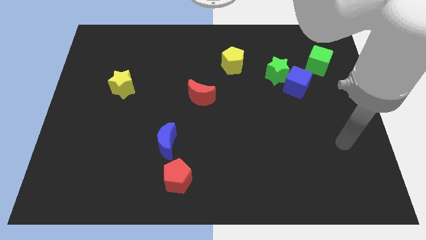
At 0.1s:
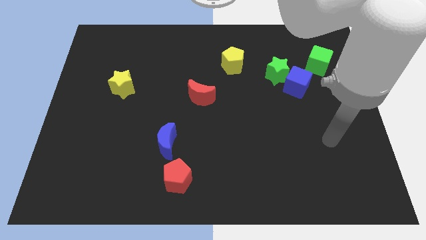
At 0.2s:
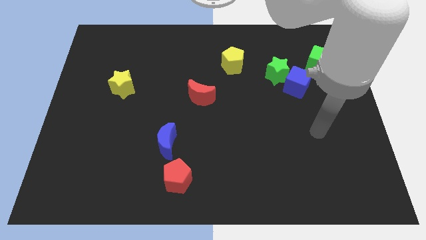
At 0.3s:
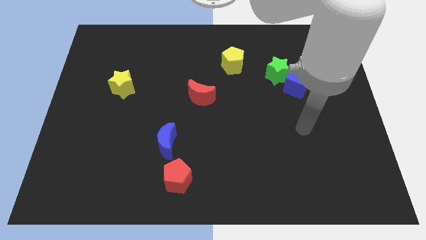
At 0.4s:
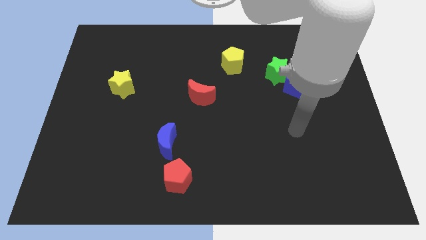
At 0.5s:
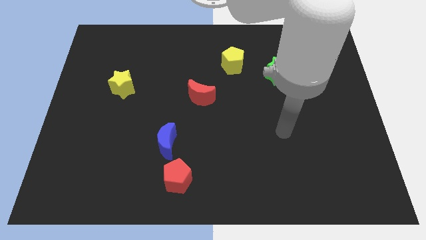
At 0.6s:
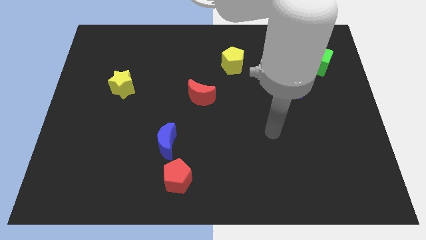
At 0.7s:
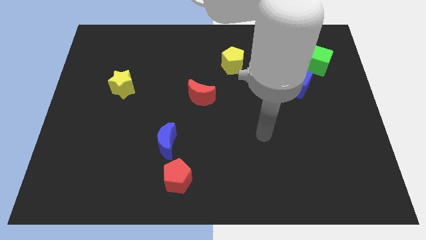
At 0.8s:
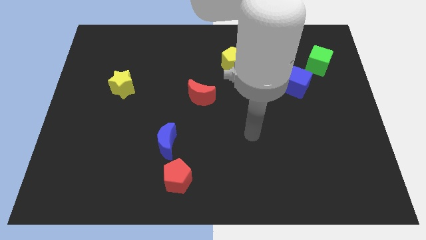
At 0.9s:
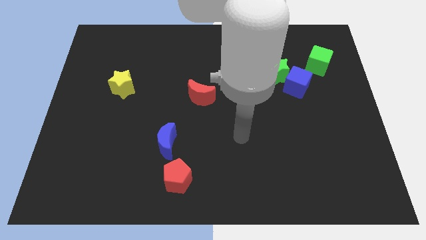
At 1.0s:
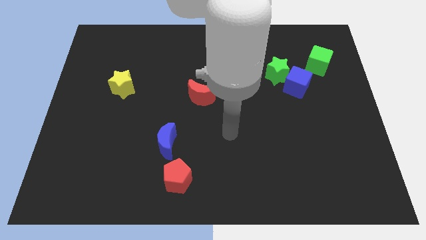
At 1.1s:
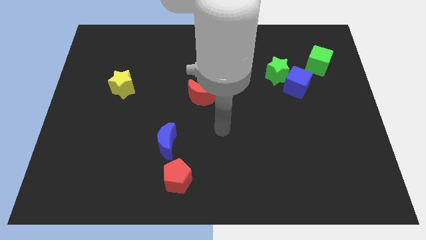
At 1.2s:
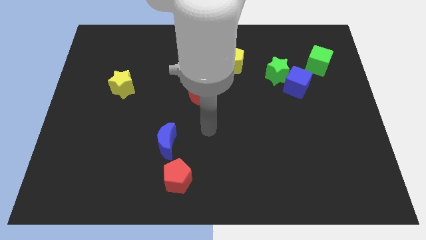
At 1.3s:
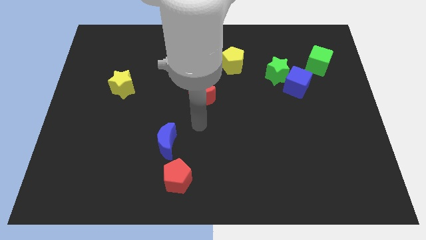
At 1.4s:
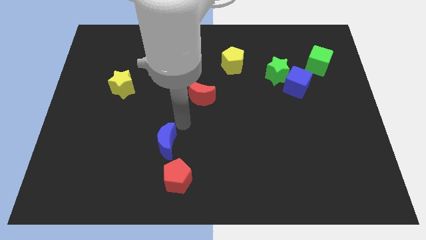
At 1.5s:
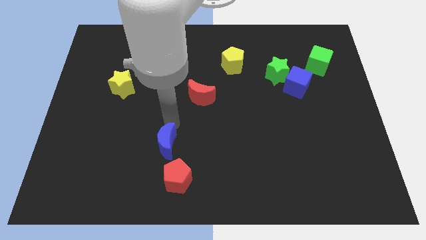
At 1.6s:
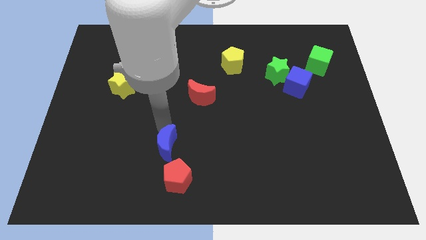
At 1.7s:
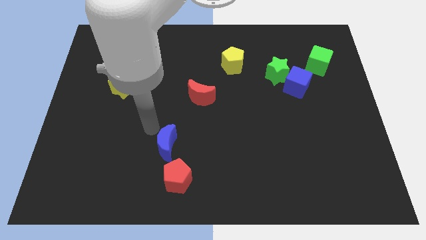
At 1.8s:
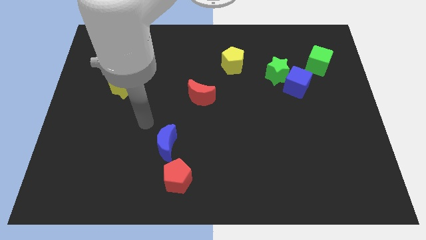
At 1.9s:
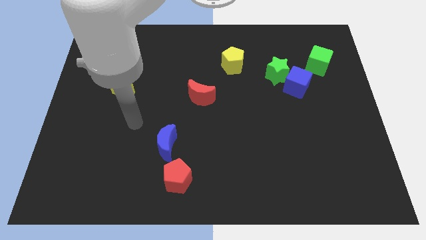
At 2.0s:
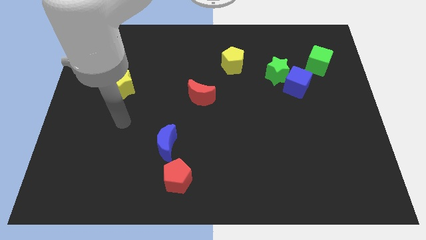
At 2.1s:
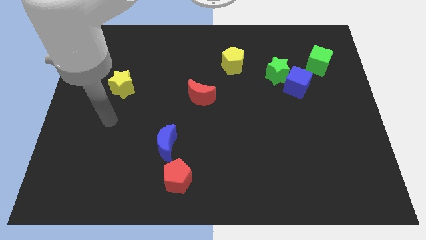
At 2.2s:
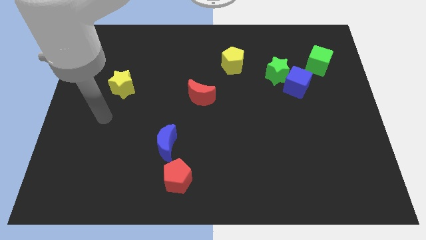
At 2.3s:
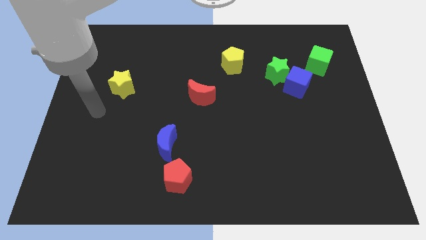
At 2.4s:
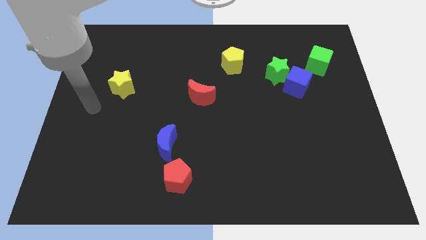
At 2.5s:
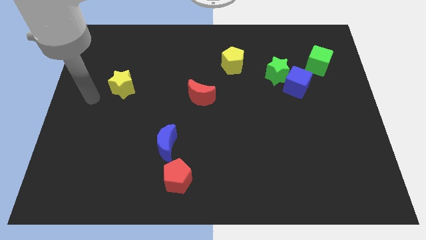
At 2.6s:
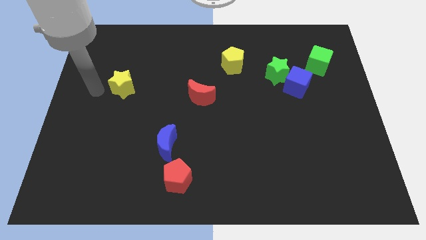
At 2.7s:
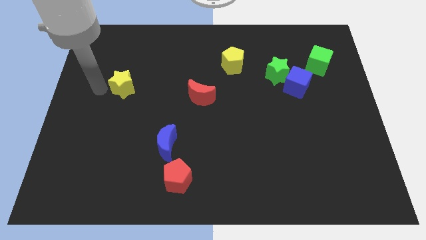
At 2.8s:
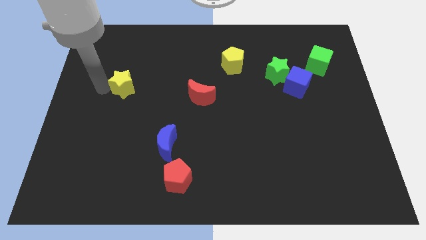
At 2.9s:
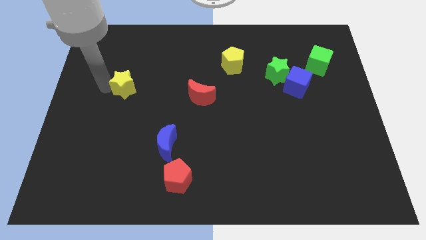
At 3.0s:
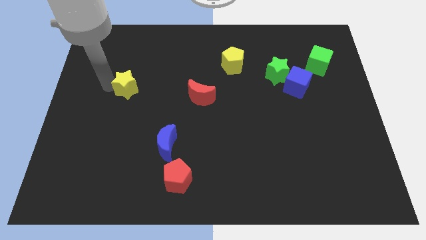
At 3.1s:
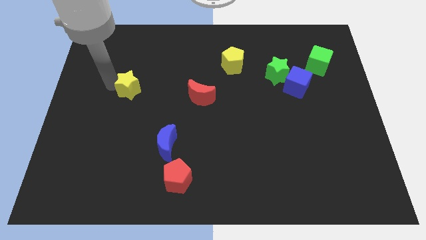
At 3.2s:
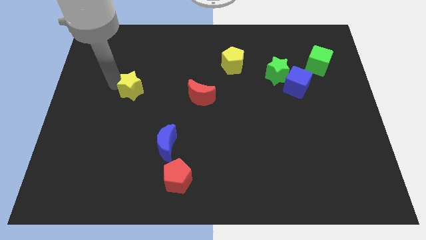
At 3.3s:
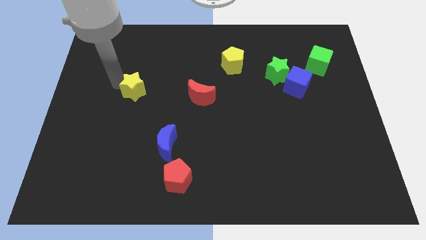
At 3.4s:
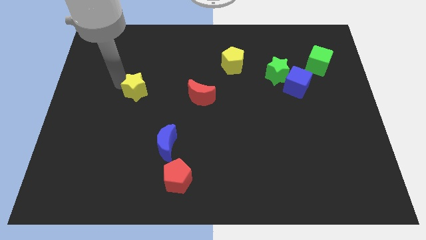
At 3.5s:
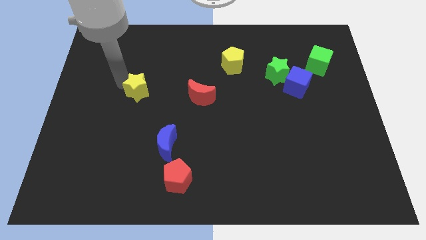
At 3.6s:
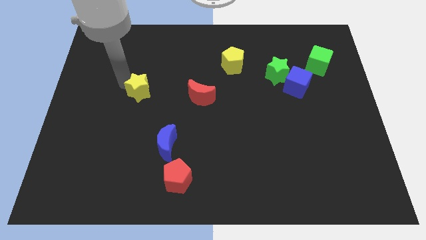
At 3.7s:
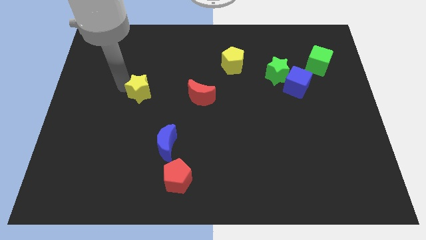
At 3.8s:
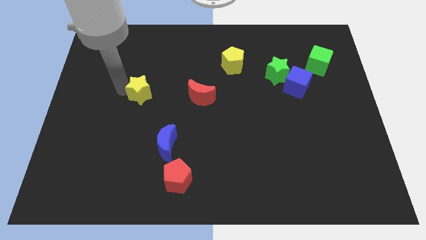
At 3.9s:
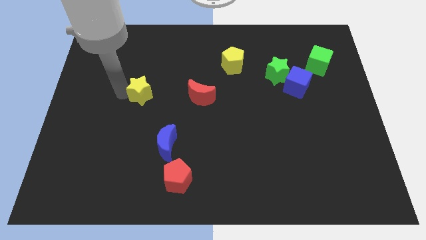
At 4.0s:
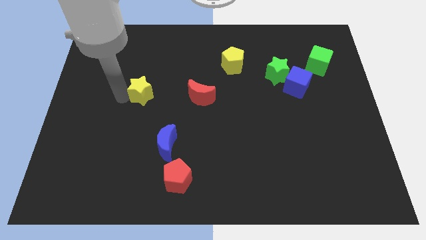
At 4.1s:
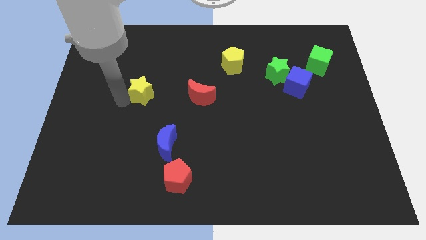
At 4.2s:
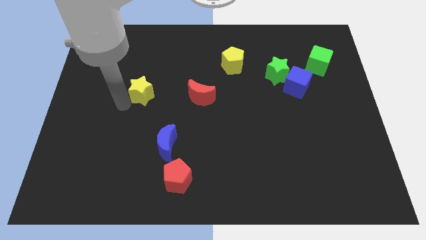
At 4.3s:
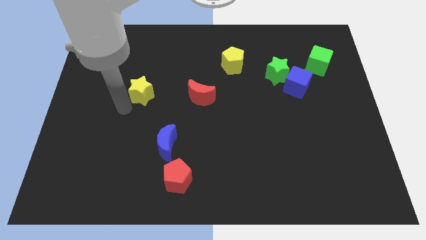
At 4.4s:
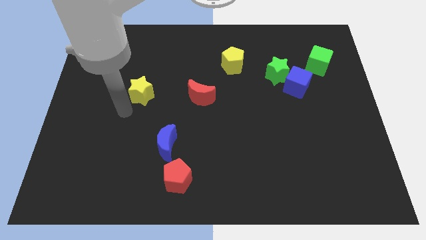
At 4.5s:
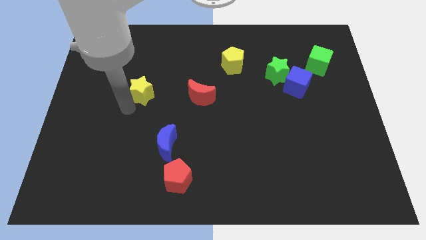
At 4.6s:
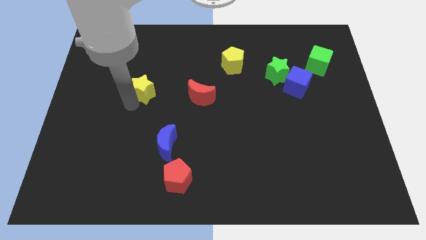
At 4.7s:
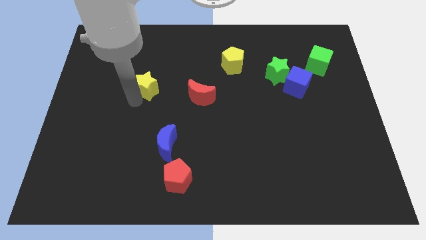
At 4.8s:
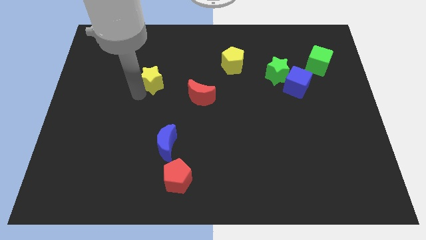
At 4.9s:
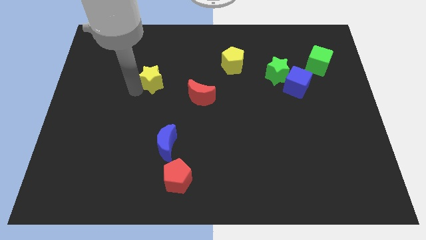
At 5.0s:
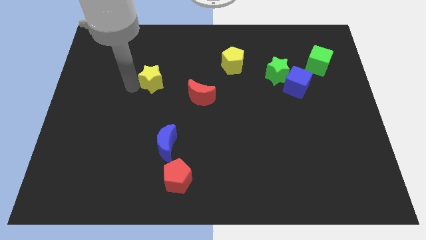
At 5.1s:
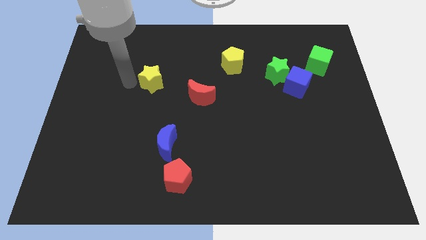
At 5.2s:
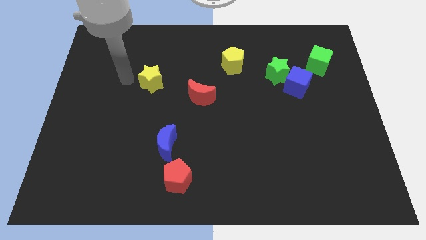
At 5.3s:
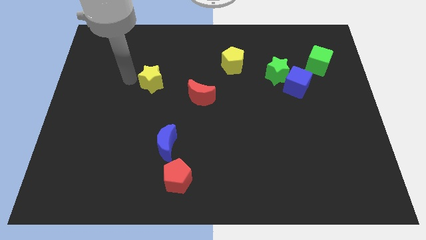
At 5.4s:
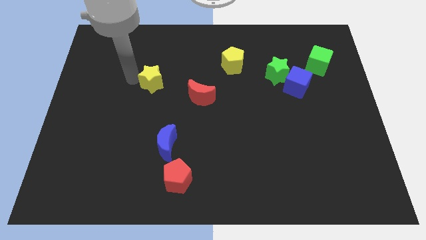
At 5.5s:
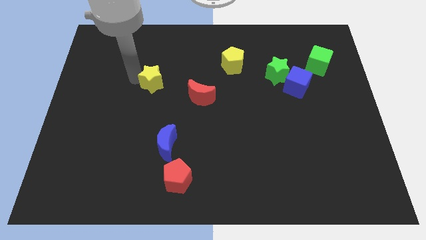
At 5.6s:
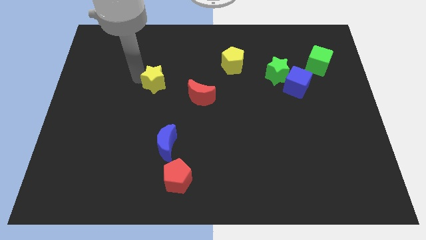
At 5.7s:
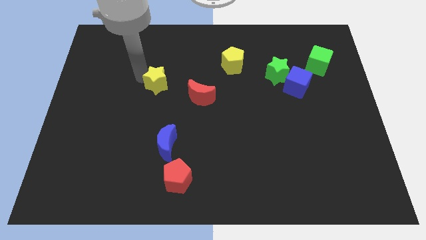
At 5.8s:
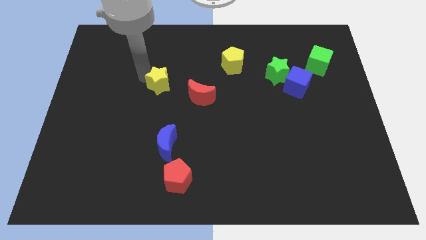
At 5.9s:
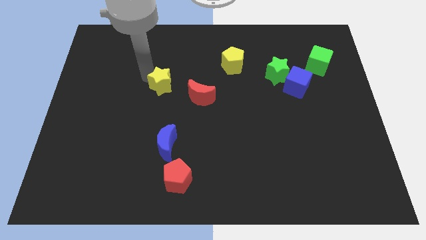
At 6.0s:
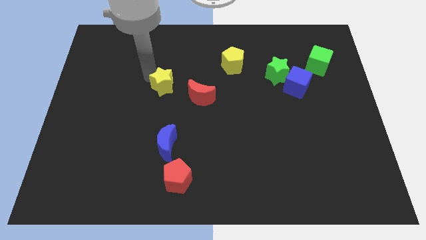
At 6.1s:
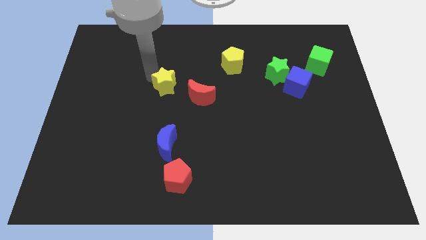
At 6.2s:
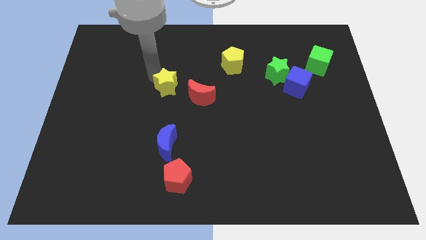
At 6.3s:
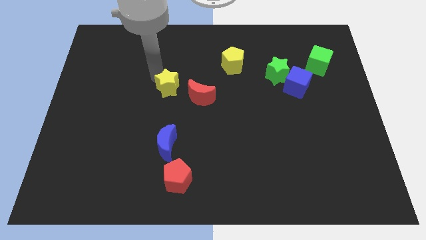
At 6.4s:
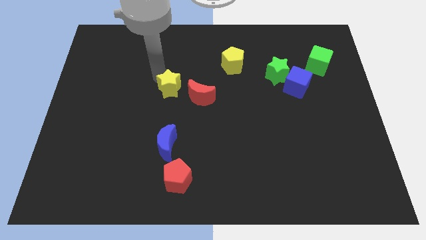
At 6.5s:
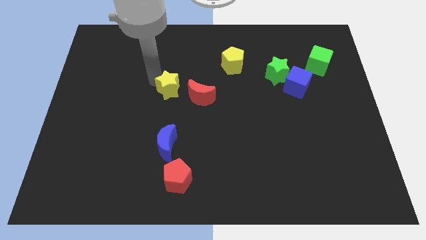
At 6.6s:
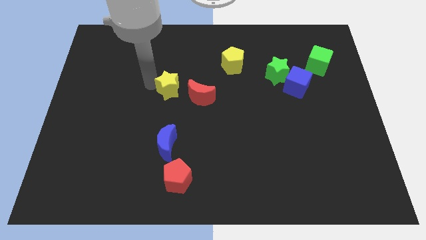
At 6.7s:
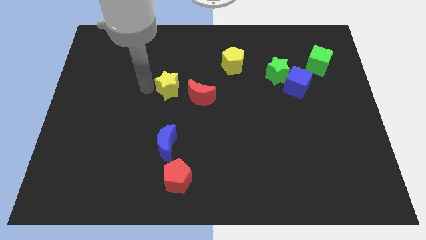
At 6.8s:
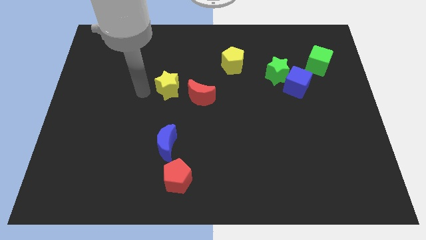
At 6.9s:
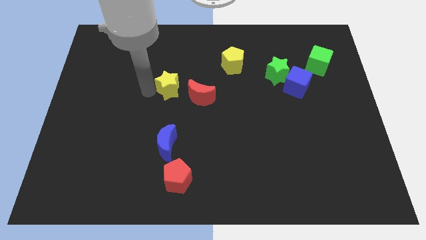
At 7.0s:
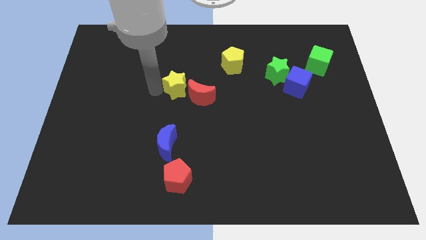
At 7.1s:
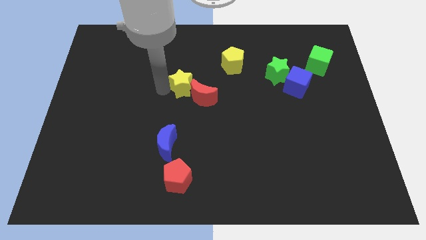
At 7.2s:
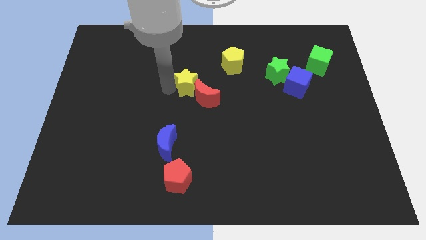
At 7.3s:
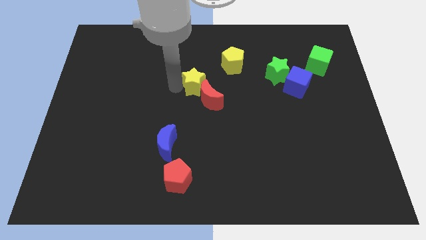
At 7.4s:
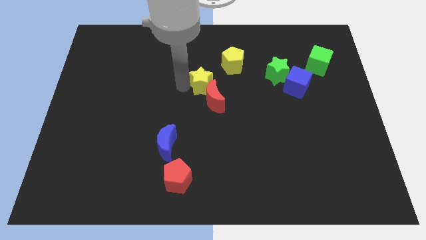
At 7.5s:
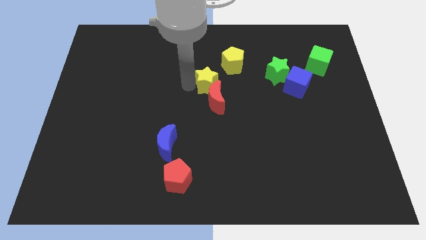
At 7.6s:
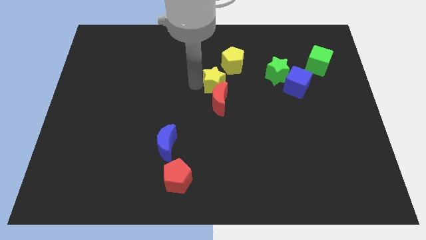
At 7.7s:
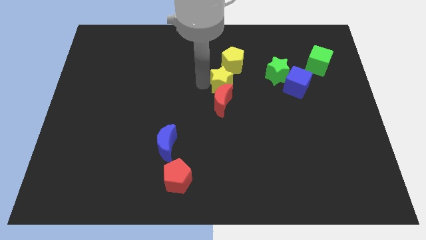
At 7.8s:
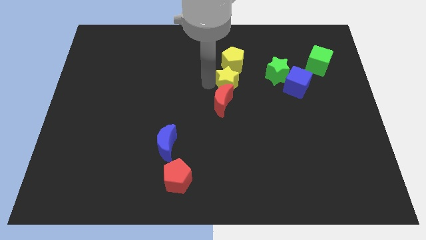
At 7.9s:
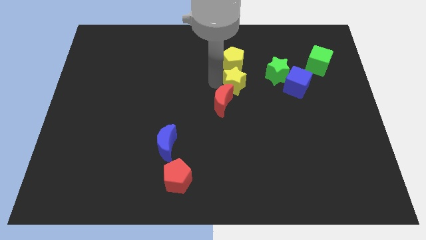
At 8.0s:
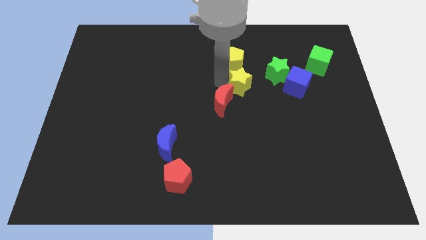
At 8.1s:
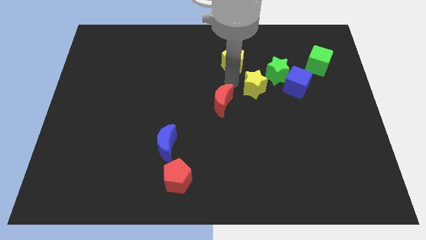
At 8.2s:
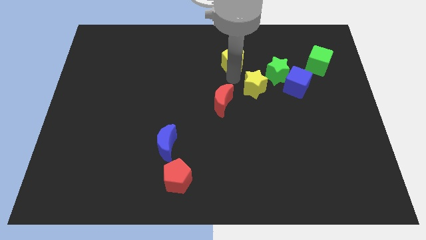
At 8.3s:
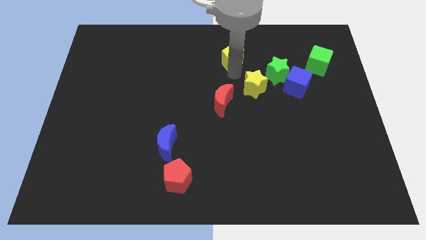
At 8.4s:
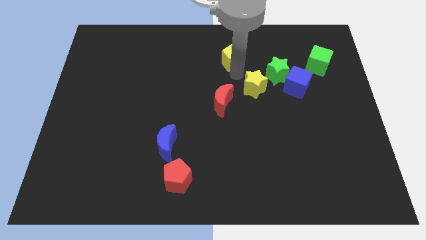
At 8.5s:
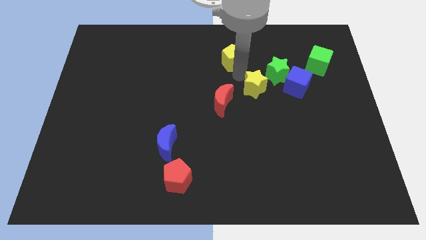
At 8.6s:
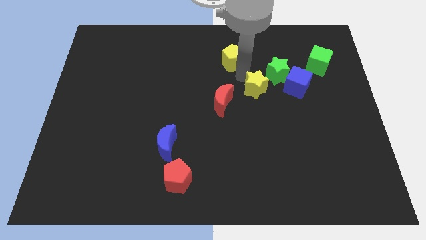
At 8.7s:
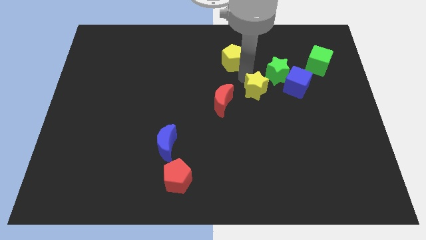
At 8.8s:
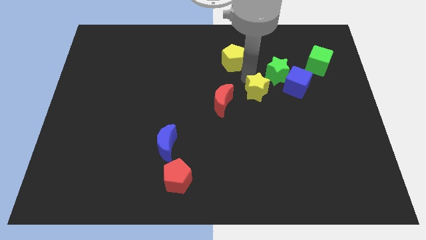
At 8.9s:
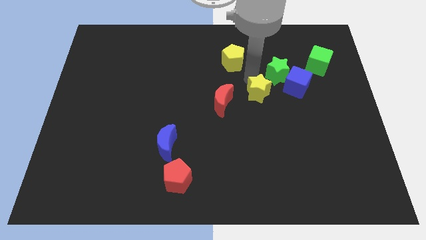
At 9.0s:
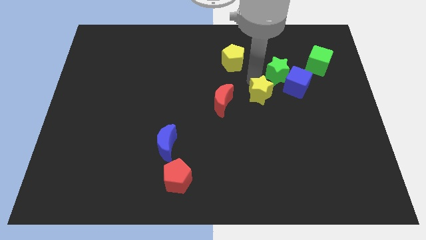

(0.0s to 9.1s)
push the yellow star to the bottom left side of the blue cube
